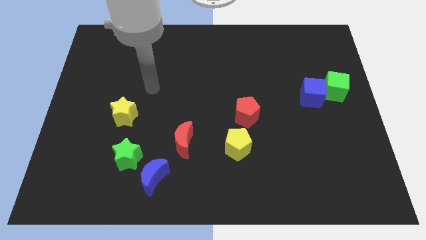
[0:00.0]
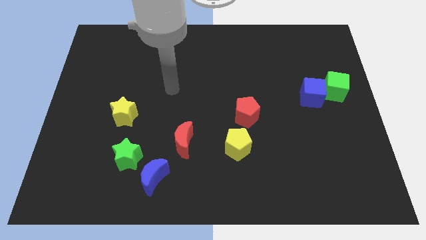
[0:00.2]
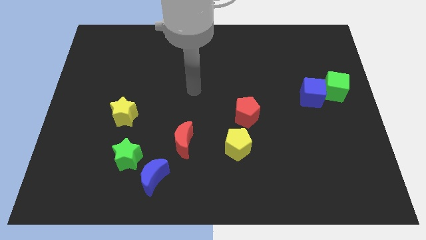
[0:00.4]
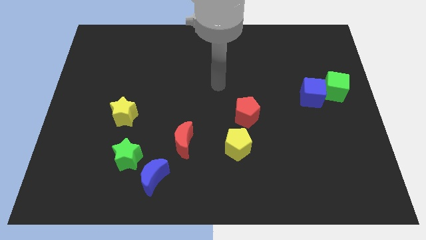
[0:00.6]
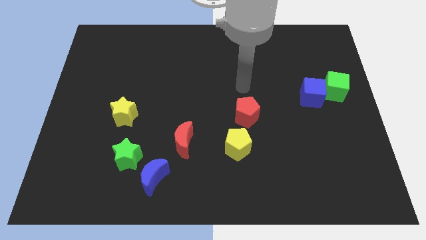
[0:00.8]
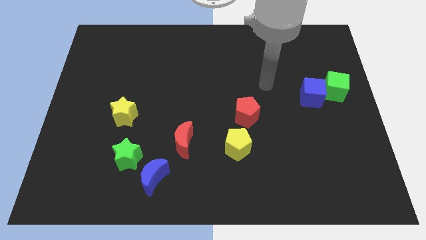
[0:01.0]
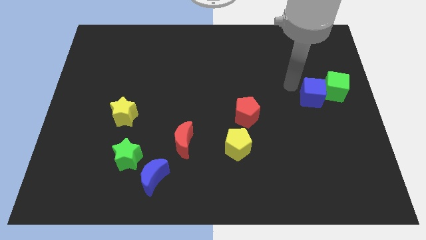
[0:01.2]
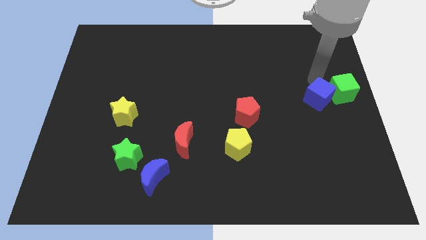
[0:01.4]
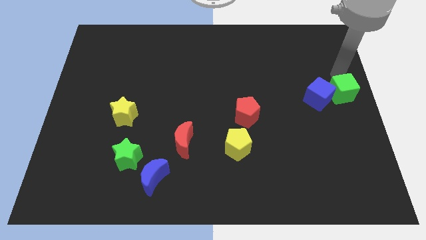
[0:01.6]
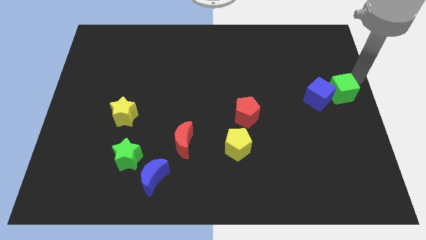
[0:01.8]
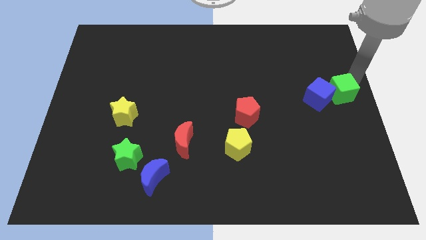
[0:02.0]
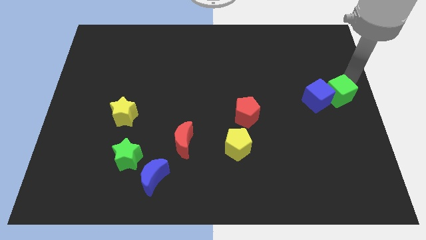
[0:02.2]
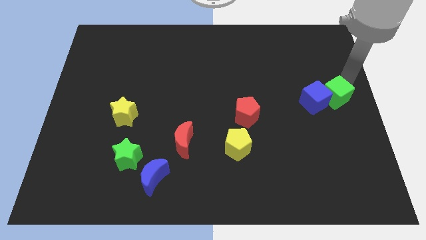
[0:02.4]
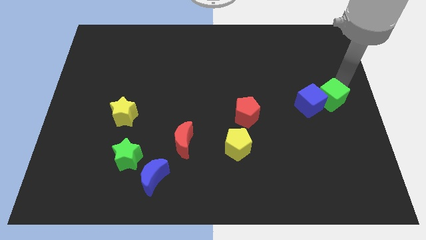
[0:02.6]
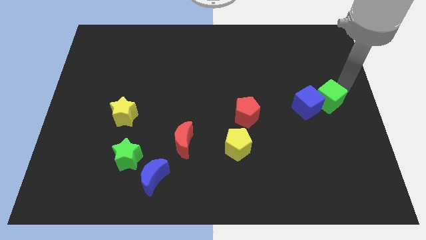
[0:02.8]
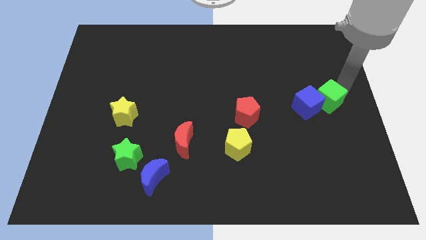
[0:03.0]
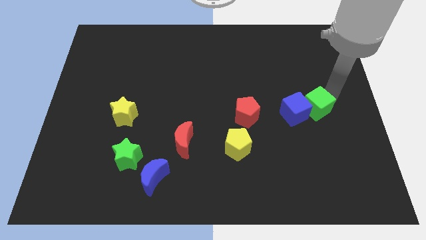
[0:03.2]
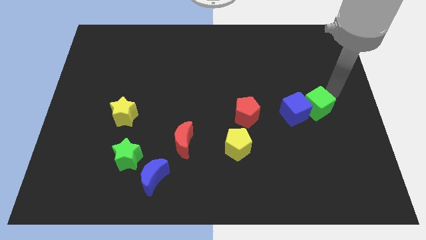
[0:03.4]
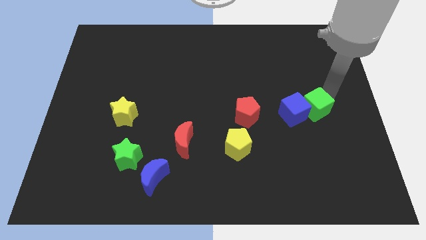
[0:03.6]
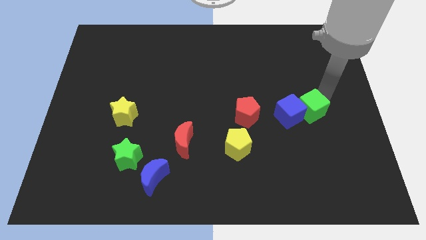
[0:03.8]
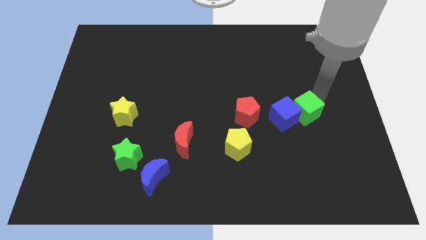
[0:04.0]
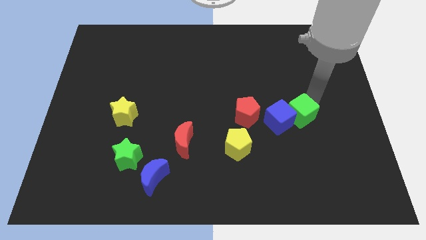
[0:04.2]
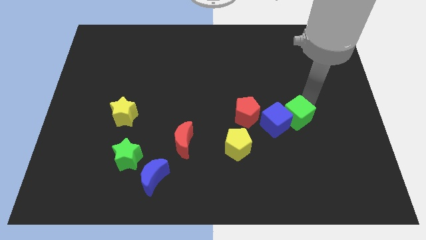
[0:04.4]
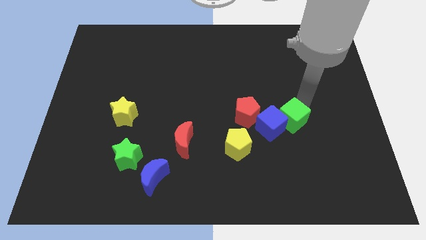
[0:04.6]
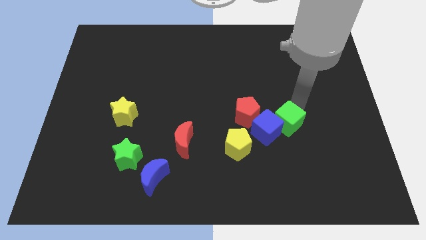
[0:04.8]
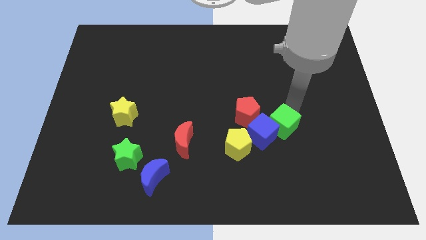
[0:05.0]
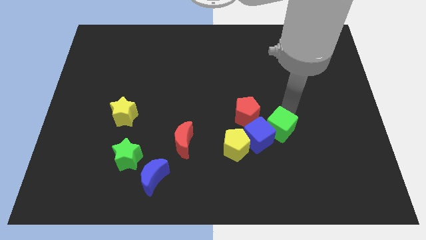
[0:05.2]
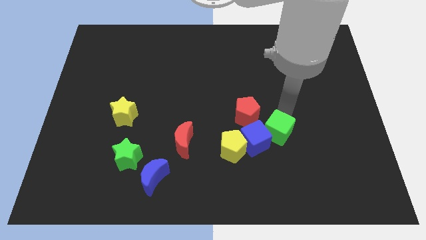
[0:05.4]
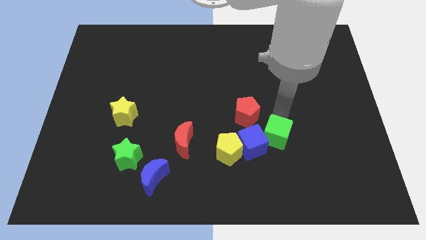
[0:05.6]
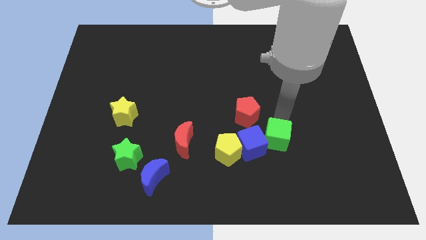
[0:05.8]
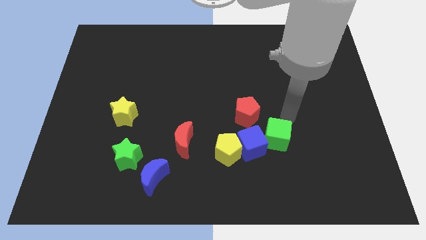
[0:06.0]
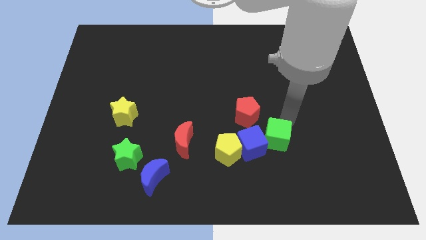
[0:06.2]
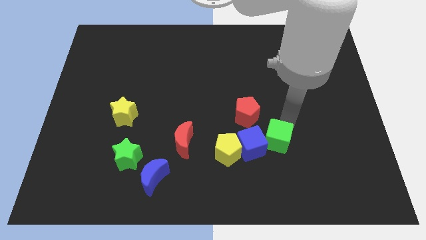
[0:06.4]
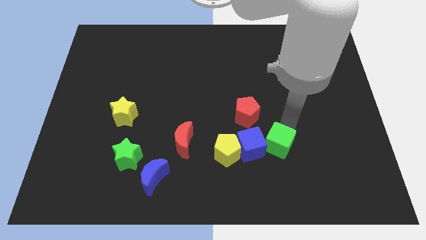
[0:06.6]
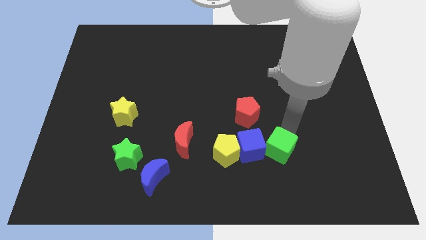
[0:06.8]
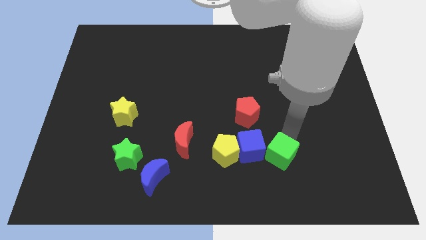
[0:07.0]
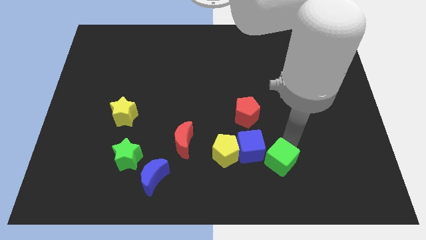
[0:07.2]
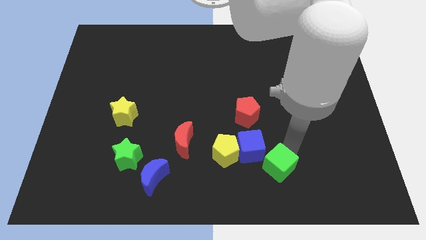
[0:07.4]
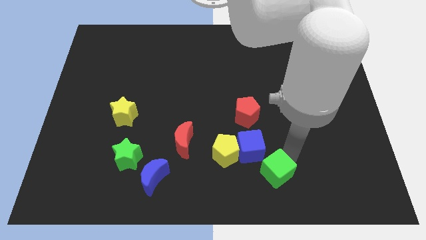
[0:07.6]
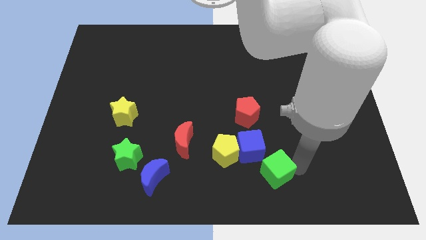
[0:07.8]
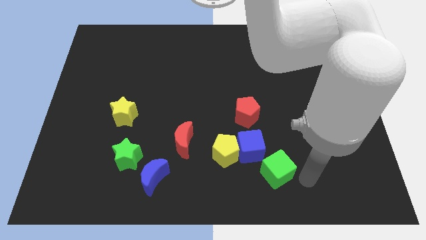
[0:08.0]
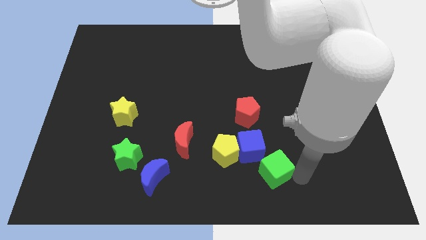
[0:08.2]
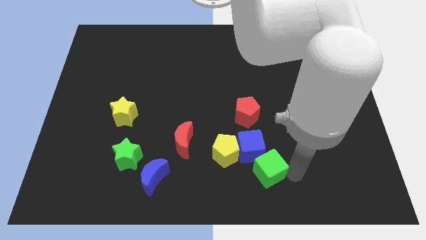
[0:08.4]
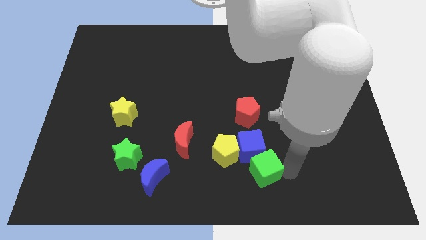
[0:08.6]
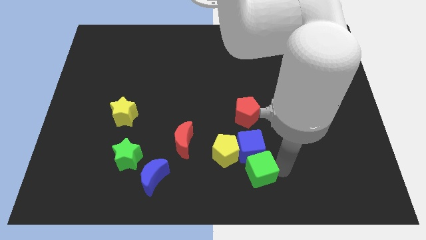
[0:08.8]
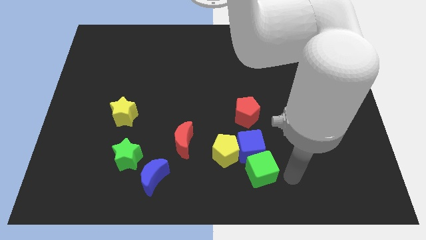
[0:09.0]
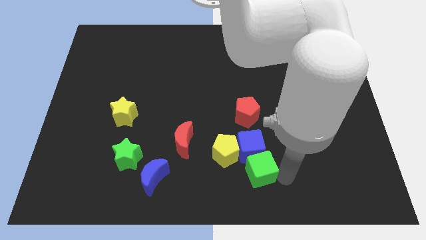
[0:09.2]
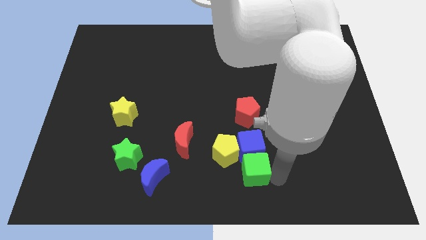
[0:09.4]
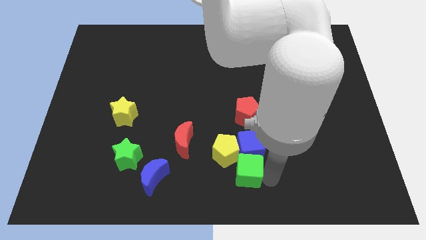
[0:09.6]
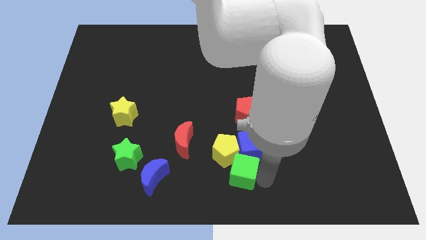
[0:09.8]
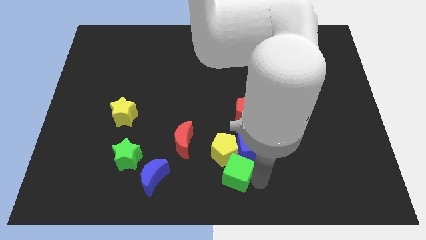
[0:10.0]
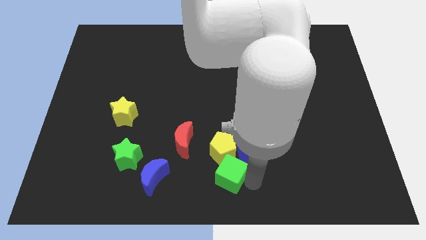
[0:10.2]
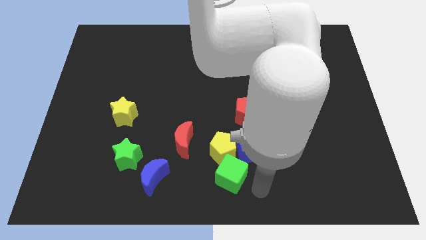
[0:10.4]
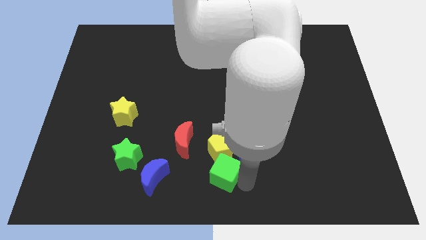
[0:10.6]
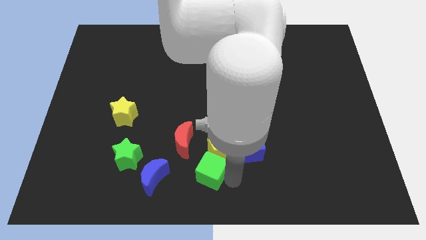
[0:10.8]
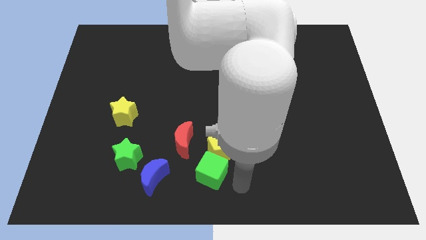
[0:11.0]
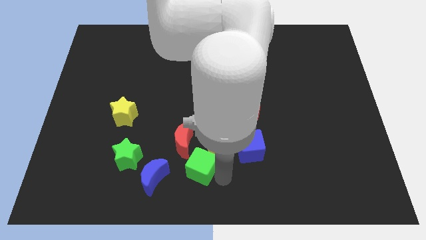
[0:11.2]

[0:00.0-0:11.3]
put the green cube just right of the green star

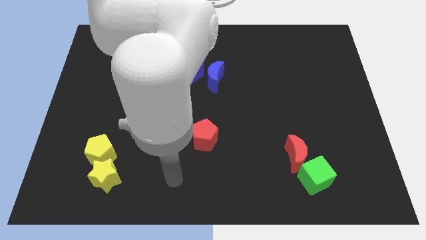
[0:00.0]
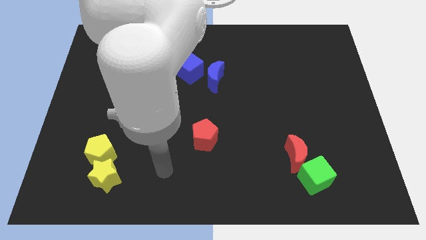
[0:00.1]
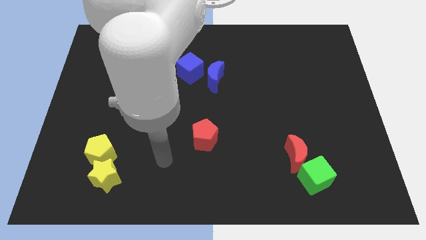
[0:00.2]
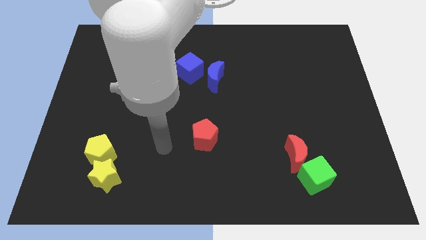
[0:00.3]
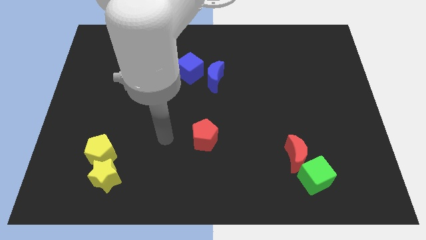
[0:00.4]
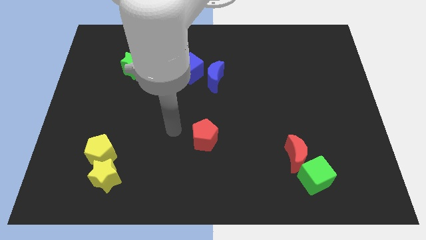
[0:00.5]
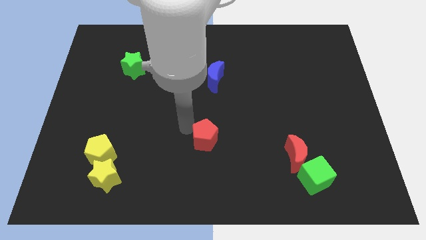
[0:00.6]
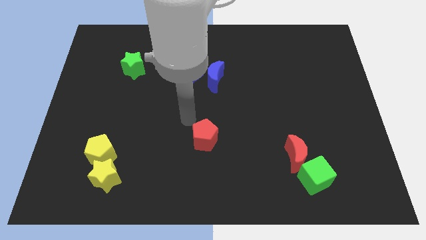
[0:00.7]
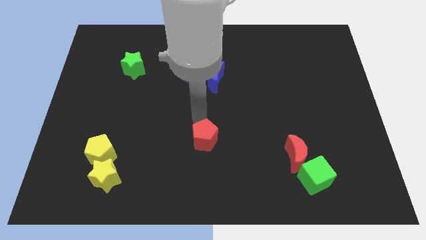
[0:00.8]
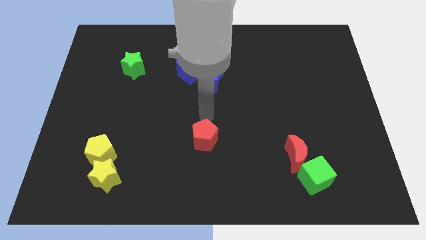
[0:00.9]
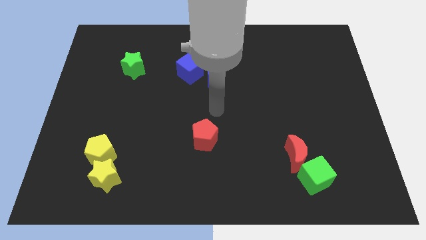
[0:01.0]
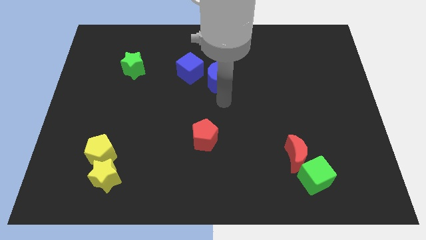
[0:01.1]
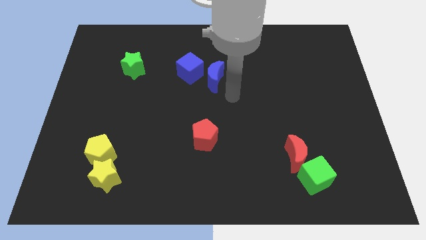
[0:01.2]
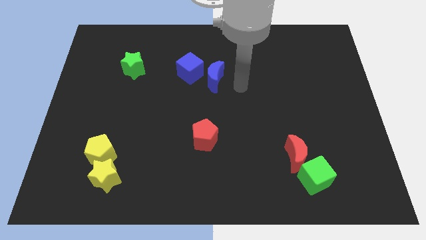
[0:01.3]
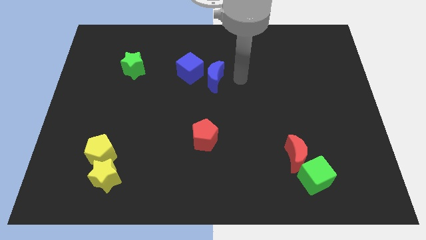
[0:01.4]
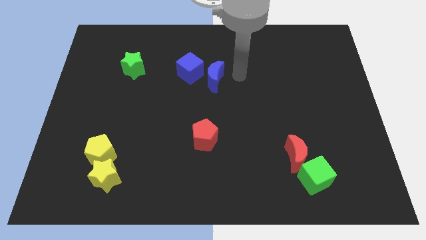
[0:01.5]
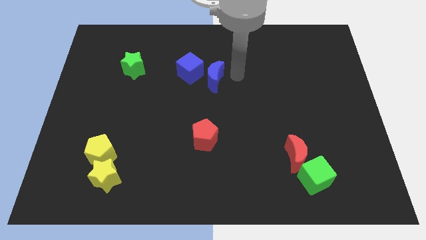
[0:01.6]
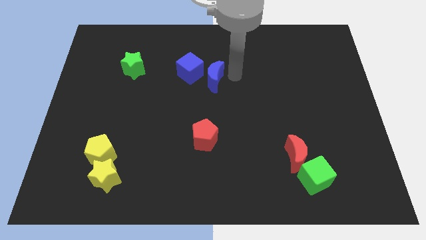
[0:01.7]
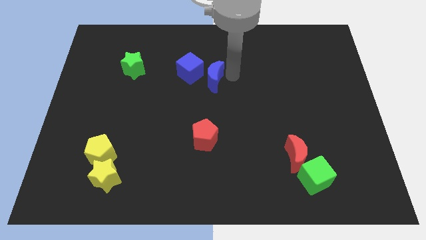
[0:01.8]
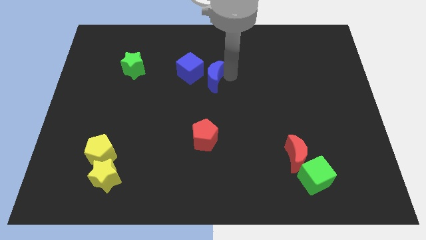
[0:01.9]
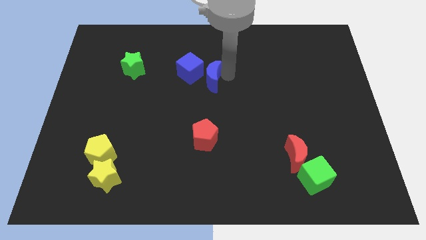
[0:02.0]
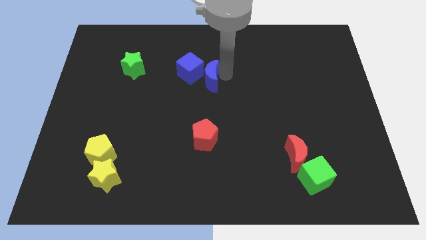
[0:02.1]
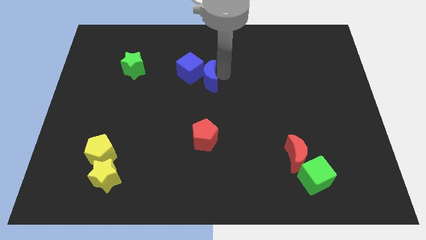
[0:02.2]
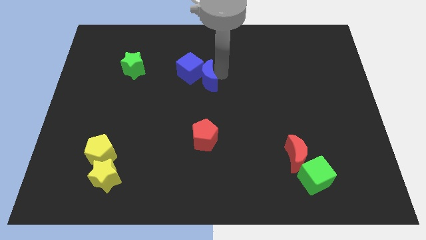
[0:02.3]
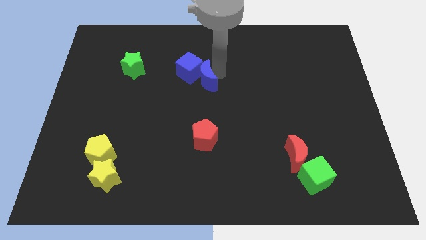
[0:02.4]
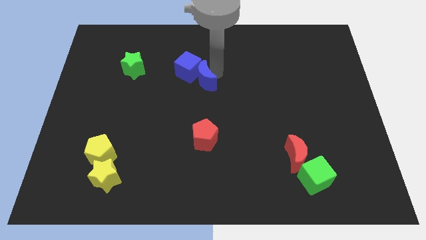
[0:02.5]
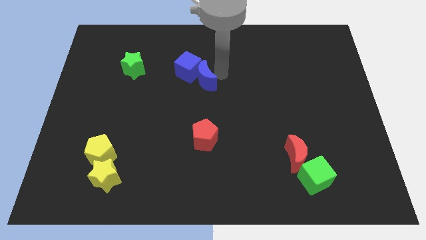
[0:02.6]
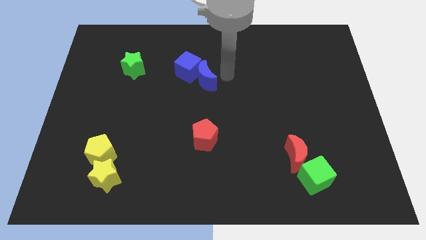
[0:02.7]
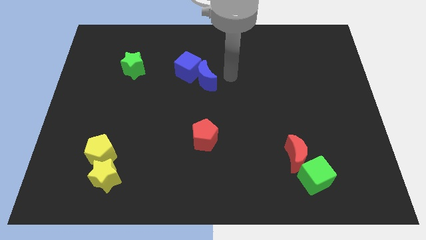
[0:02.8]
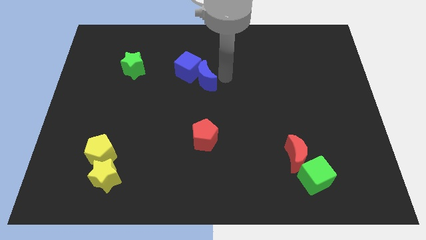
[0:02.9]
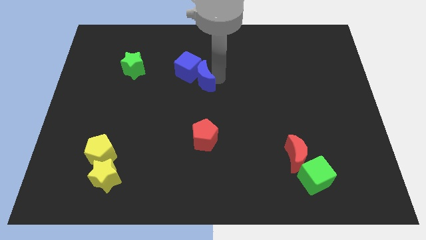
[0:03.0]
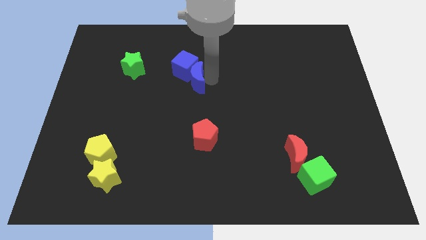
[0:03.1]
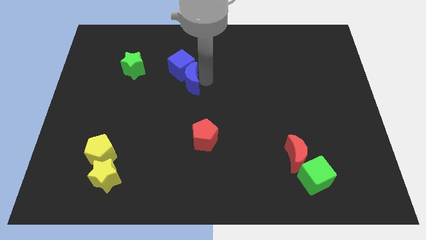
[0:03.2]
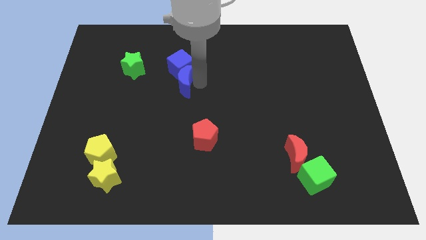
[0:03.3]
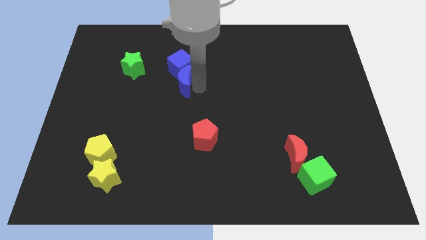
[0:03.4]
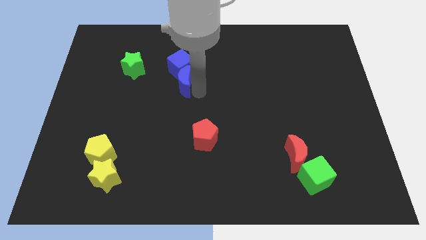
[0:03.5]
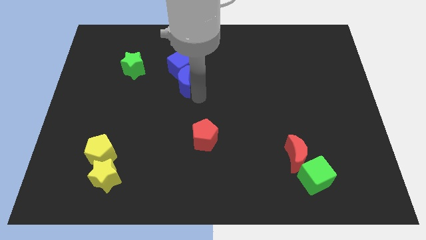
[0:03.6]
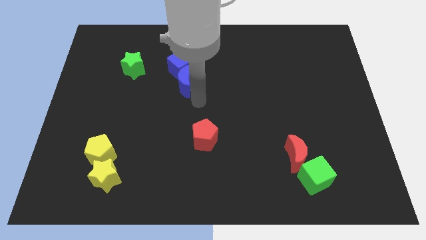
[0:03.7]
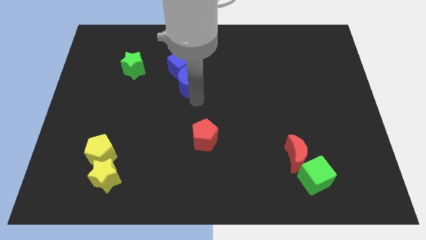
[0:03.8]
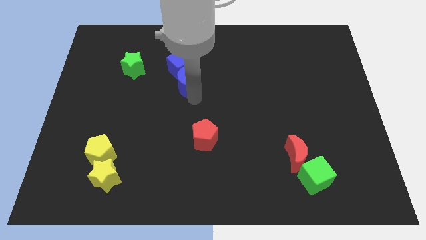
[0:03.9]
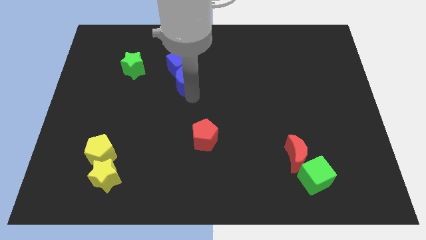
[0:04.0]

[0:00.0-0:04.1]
put the blue moon to the right of the green star
